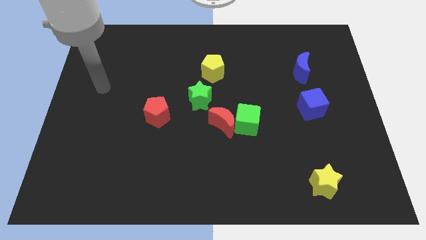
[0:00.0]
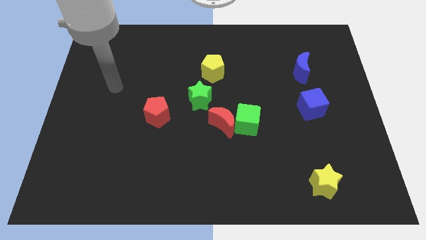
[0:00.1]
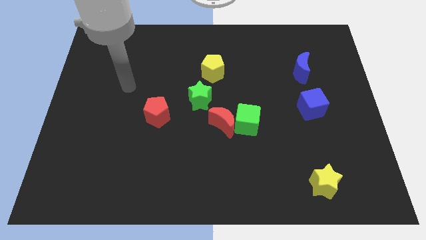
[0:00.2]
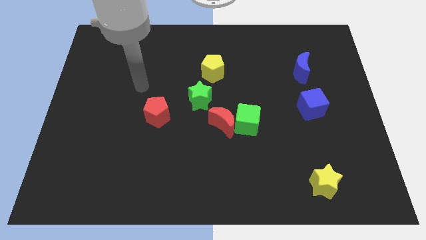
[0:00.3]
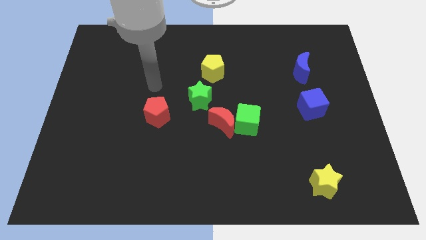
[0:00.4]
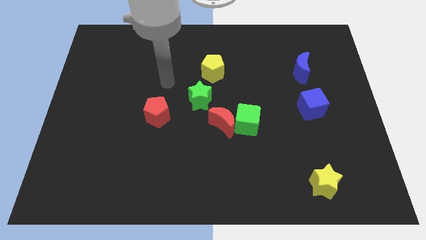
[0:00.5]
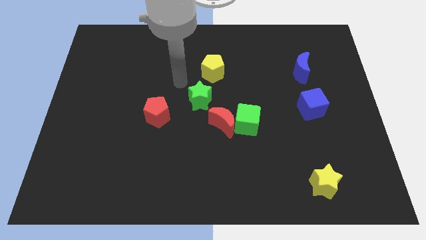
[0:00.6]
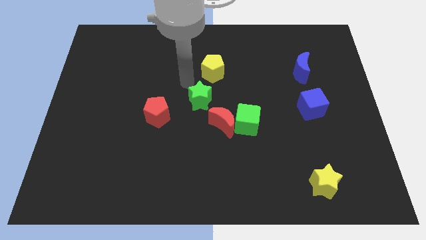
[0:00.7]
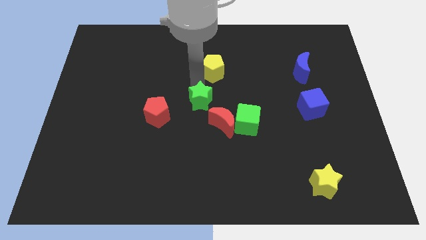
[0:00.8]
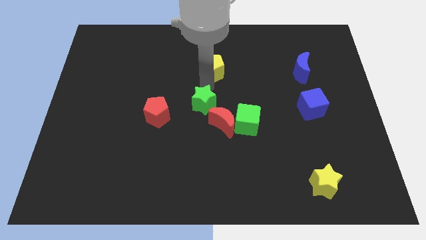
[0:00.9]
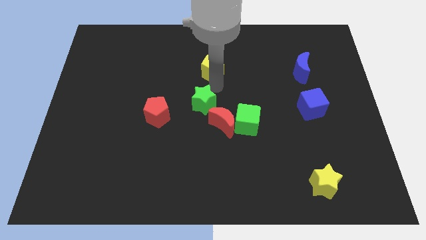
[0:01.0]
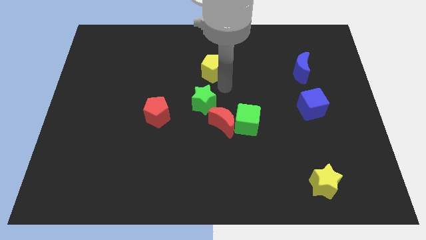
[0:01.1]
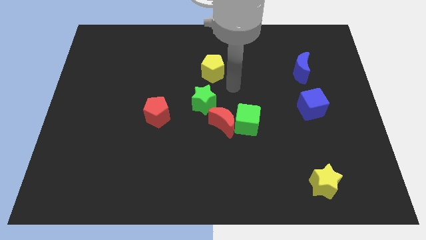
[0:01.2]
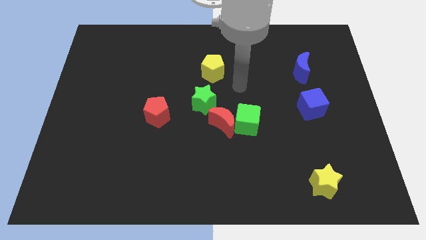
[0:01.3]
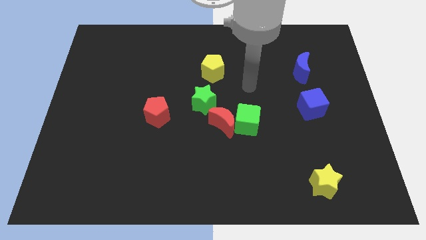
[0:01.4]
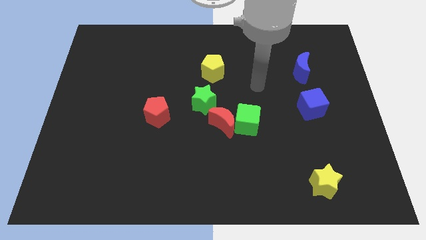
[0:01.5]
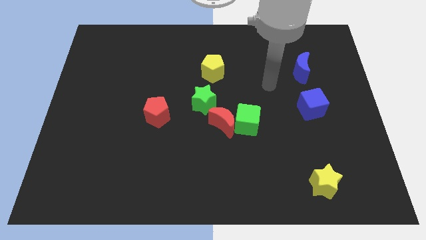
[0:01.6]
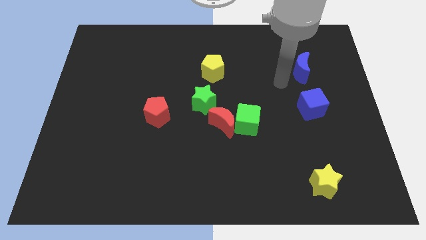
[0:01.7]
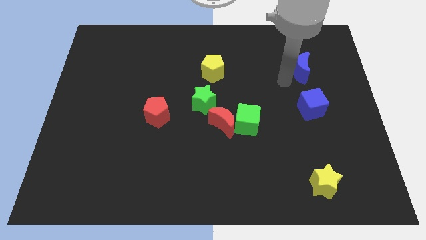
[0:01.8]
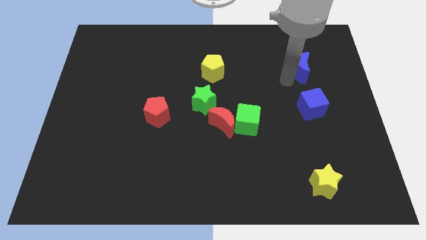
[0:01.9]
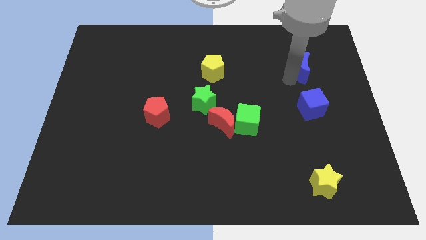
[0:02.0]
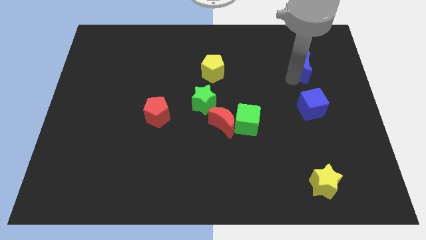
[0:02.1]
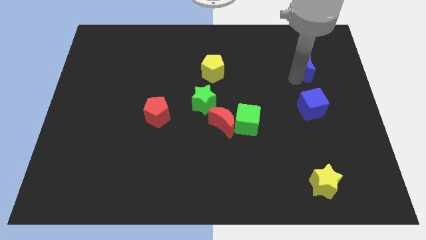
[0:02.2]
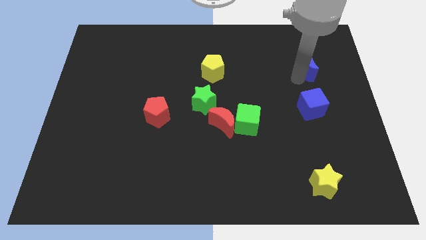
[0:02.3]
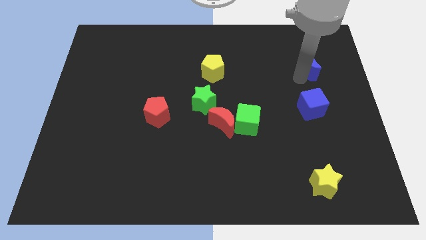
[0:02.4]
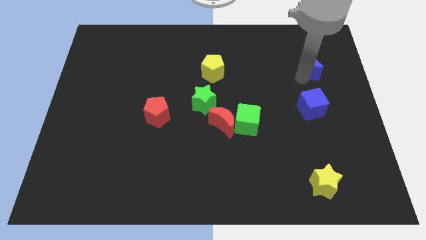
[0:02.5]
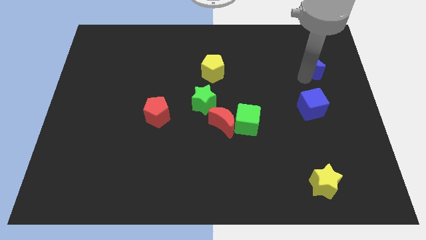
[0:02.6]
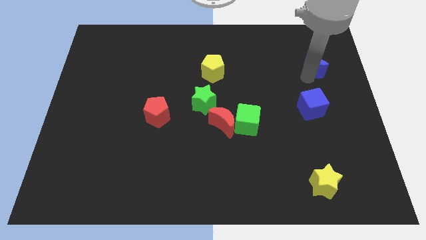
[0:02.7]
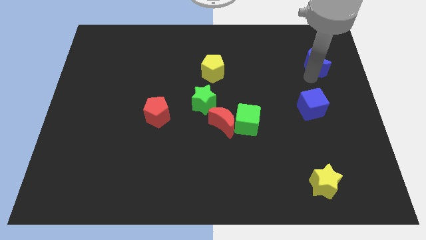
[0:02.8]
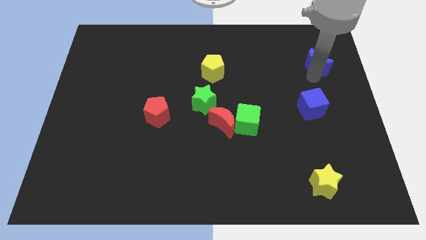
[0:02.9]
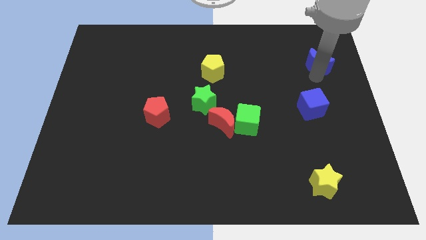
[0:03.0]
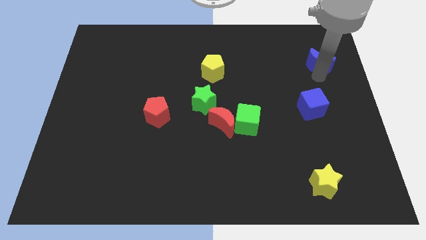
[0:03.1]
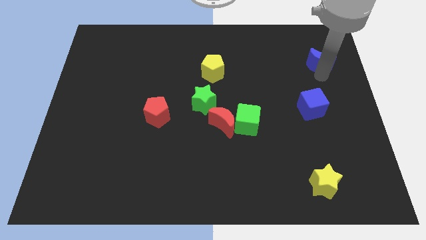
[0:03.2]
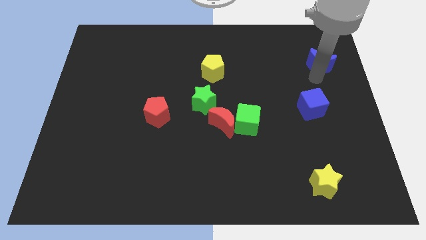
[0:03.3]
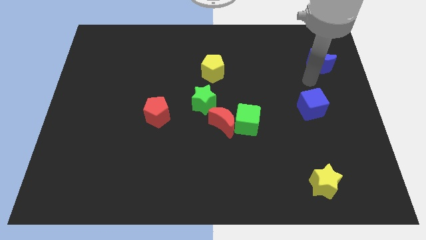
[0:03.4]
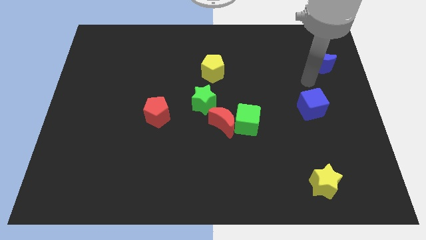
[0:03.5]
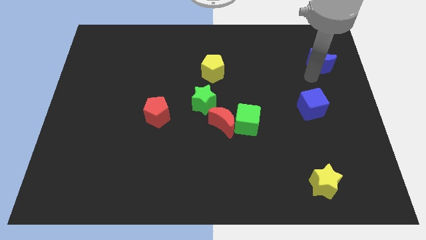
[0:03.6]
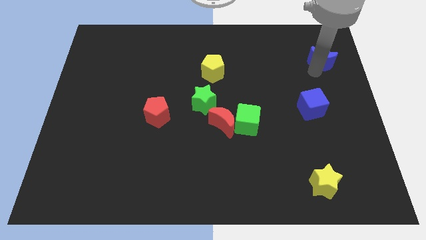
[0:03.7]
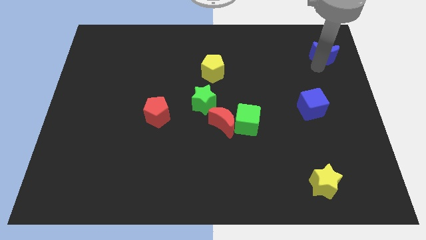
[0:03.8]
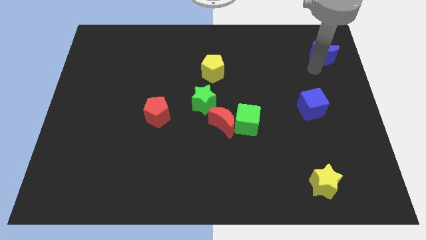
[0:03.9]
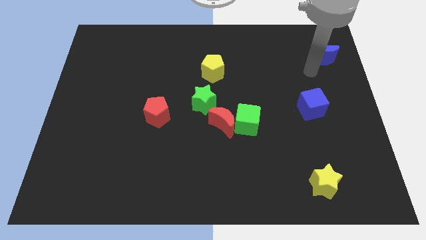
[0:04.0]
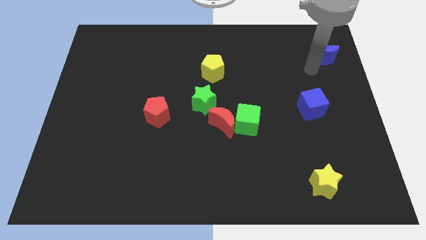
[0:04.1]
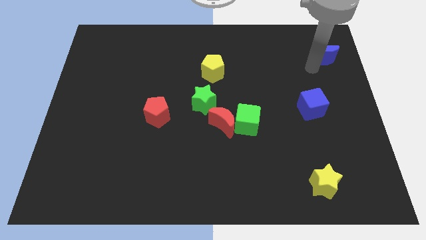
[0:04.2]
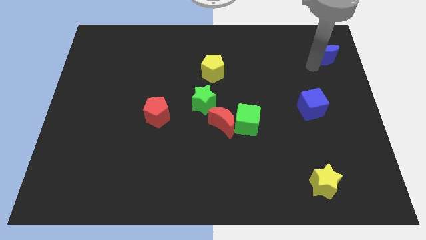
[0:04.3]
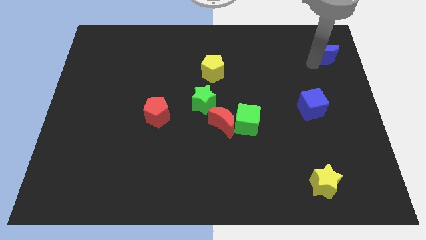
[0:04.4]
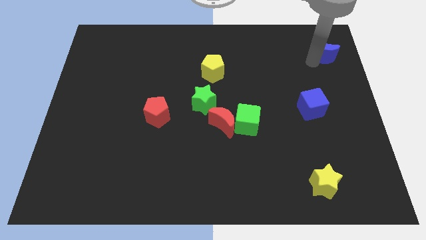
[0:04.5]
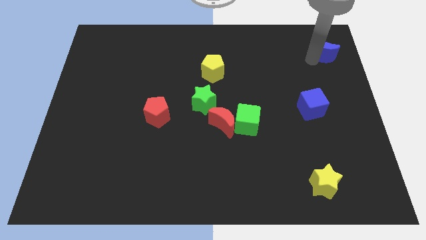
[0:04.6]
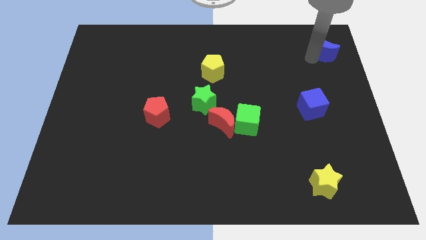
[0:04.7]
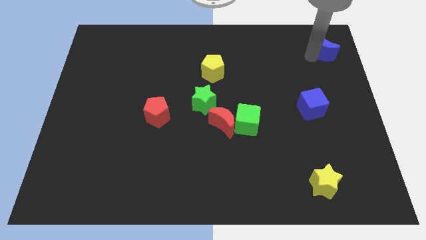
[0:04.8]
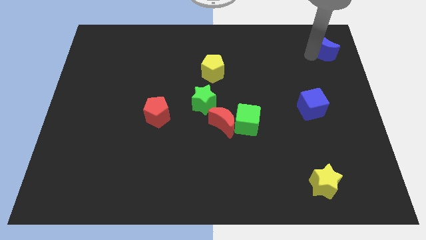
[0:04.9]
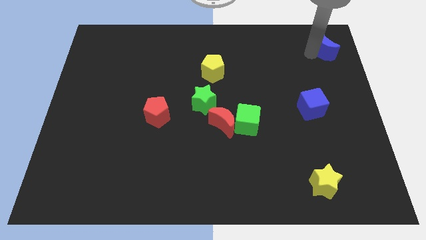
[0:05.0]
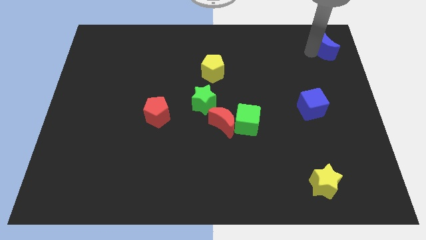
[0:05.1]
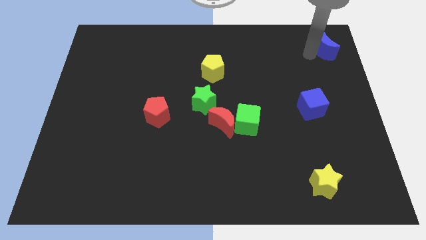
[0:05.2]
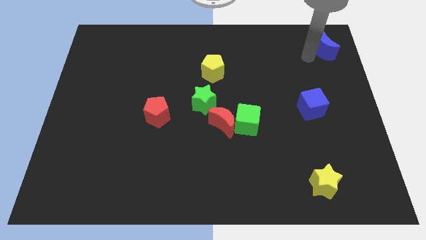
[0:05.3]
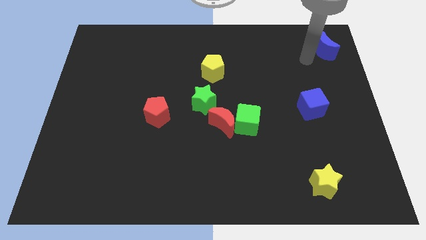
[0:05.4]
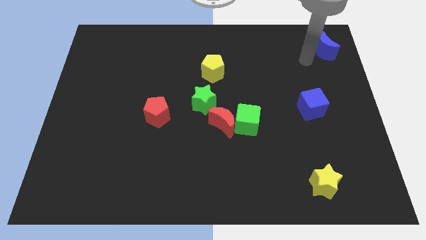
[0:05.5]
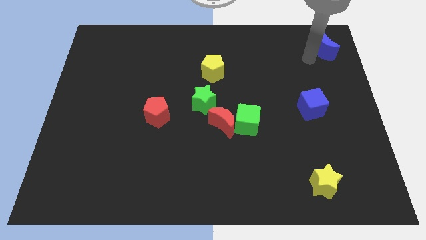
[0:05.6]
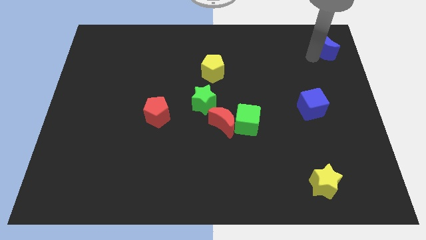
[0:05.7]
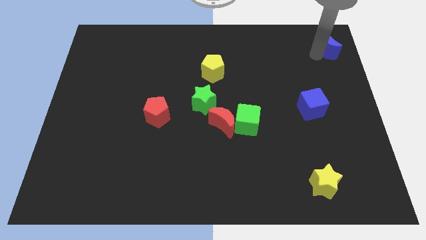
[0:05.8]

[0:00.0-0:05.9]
push the blue moon to the top right
